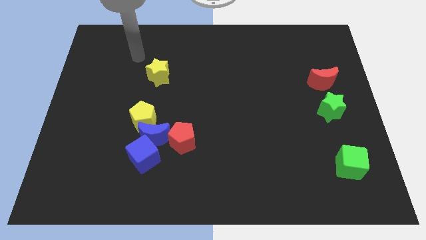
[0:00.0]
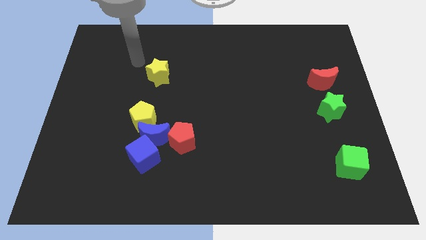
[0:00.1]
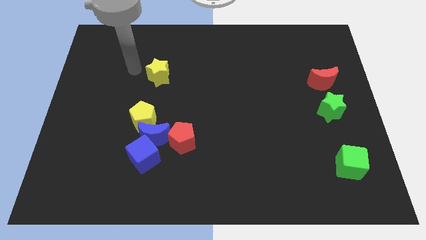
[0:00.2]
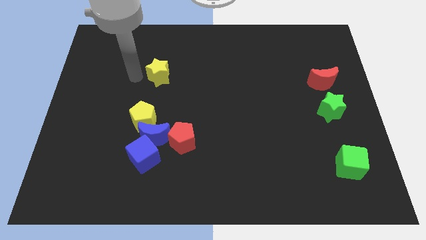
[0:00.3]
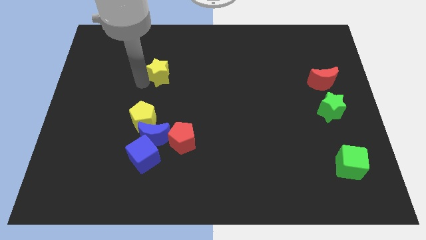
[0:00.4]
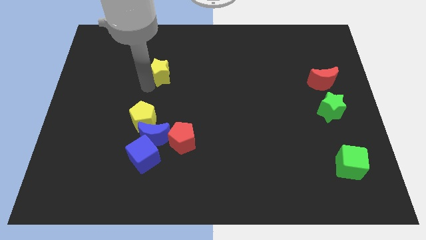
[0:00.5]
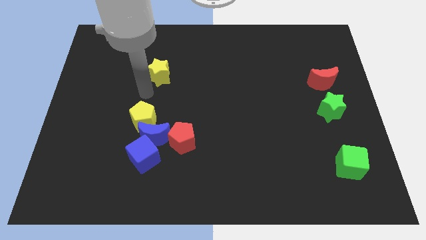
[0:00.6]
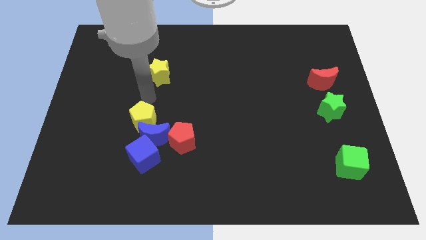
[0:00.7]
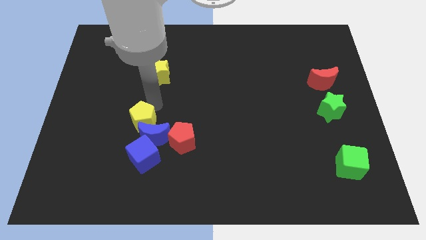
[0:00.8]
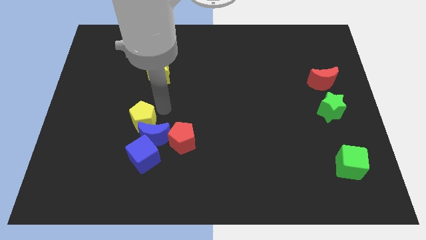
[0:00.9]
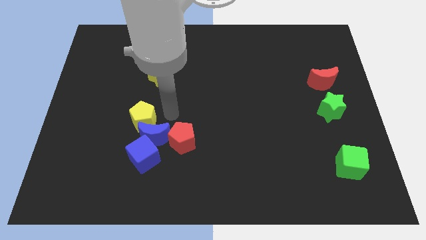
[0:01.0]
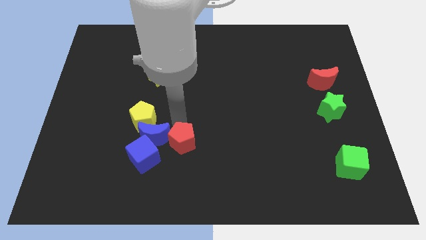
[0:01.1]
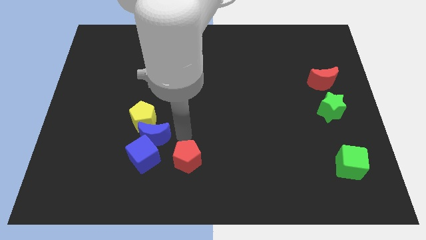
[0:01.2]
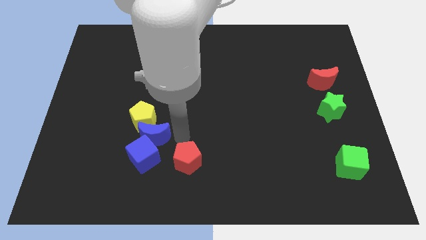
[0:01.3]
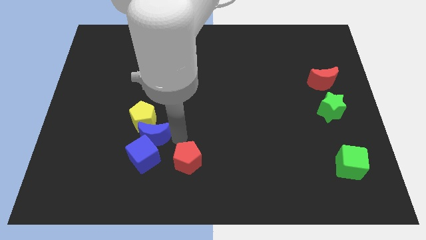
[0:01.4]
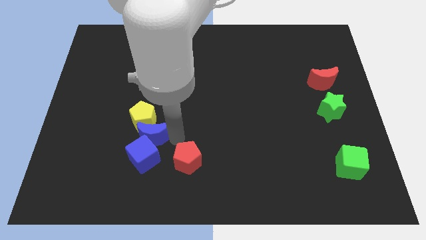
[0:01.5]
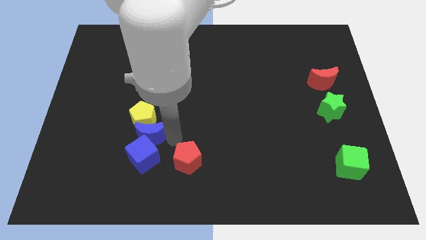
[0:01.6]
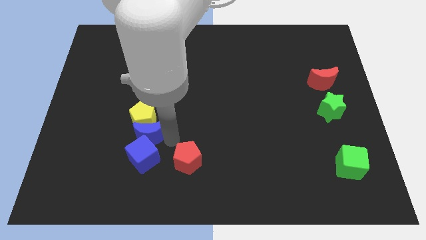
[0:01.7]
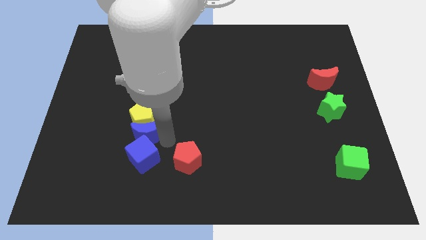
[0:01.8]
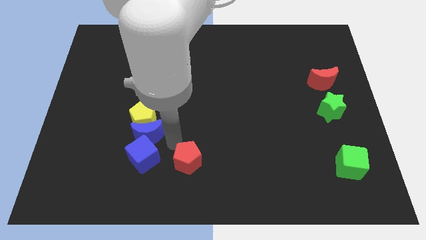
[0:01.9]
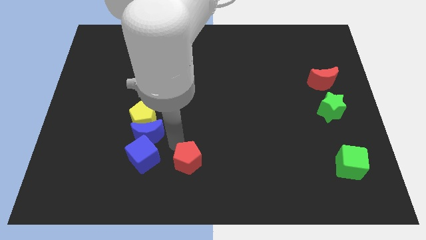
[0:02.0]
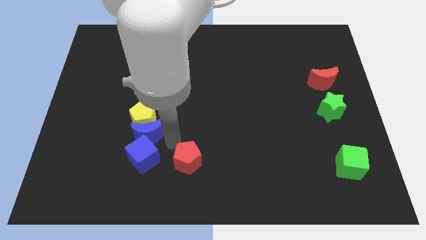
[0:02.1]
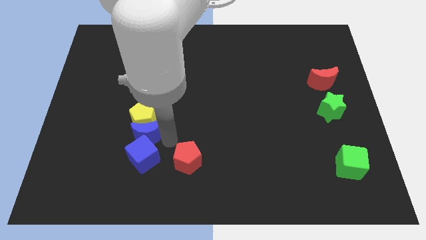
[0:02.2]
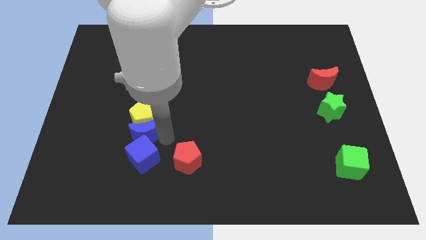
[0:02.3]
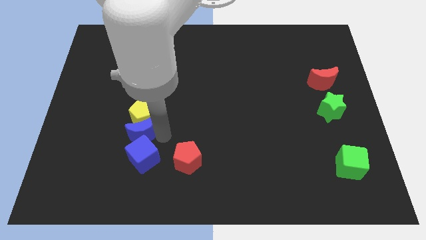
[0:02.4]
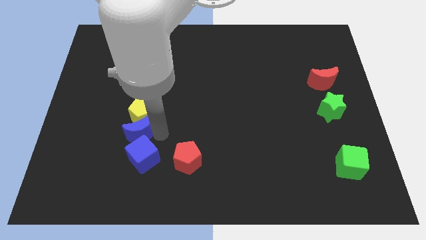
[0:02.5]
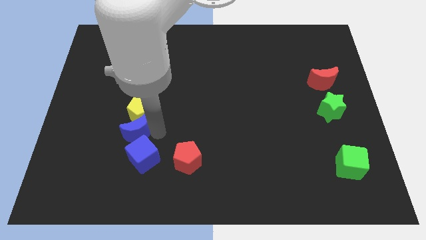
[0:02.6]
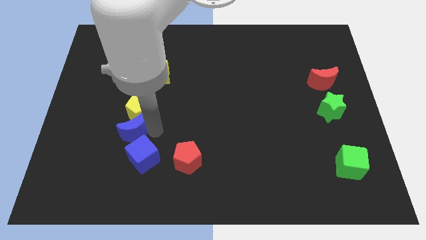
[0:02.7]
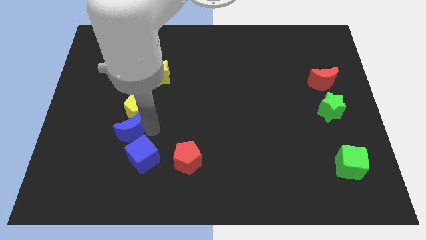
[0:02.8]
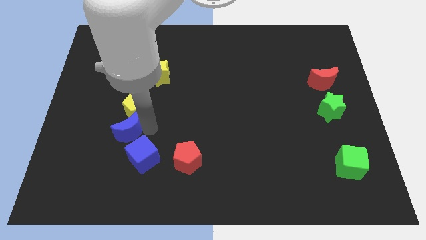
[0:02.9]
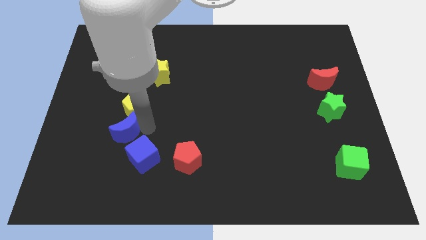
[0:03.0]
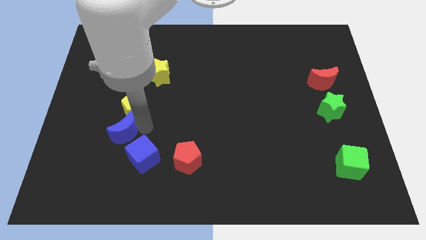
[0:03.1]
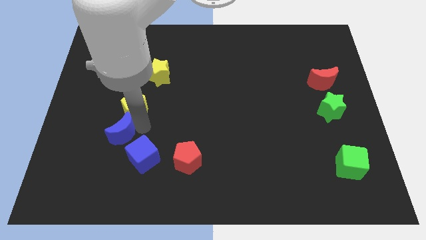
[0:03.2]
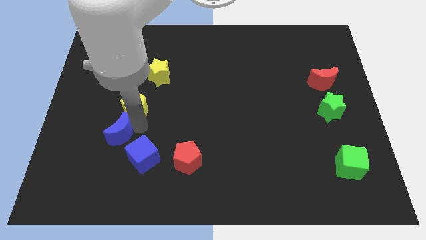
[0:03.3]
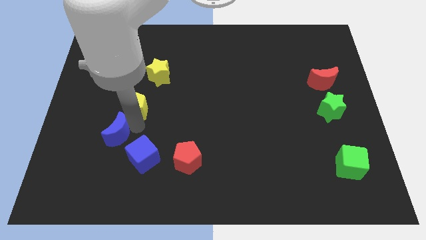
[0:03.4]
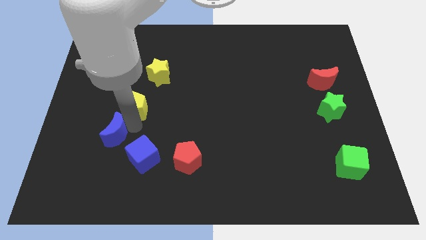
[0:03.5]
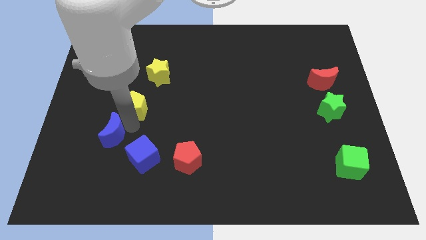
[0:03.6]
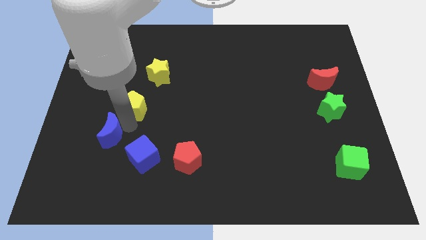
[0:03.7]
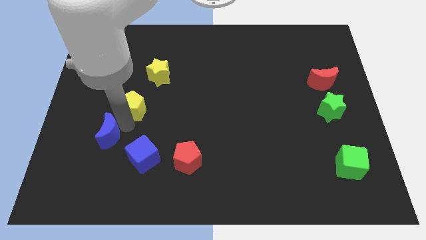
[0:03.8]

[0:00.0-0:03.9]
separate the blue moon from the group of blocks

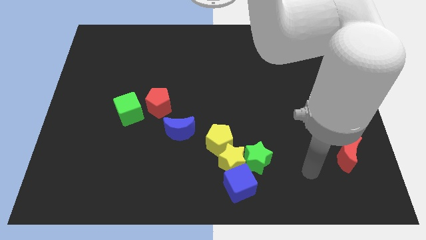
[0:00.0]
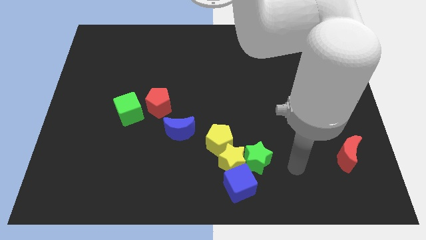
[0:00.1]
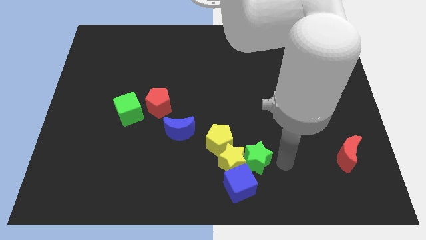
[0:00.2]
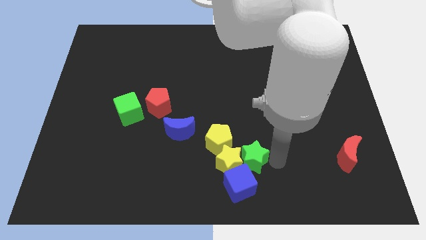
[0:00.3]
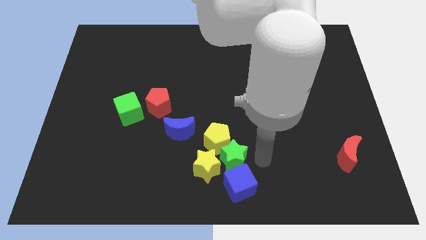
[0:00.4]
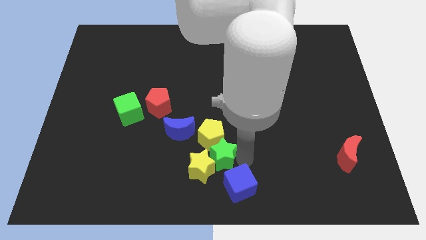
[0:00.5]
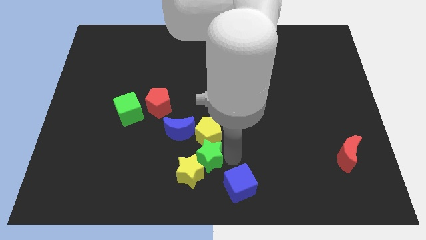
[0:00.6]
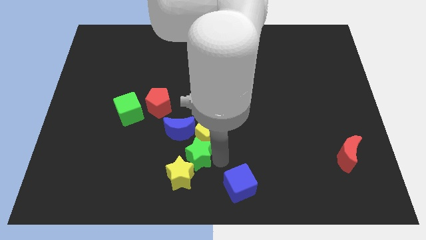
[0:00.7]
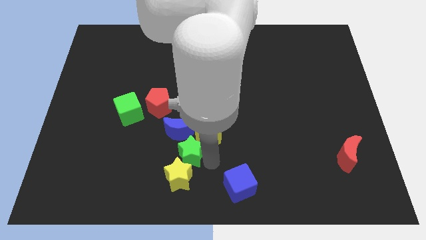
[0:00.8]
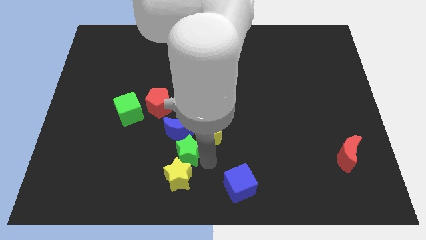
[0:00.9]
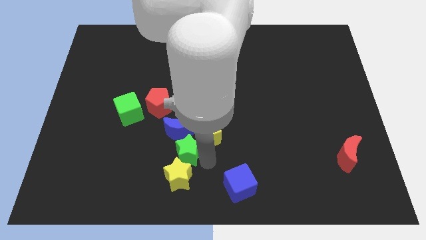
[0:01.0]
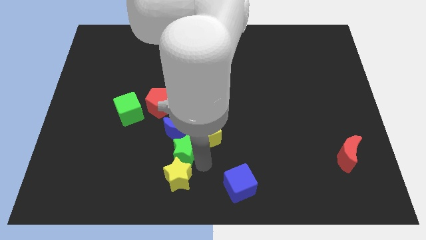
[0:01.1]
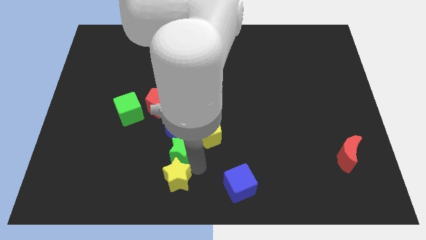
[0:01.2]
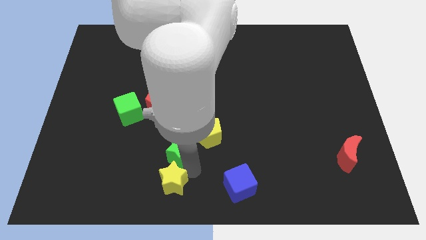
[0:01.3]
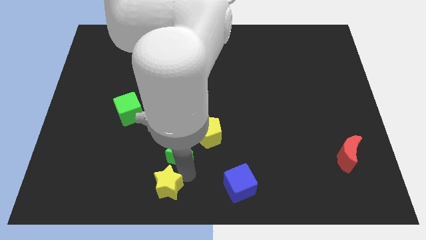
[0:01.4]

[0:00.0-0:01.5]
separate the yellow star from the clump

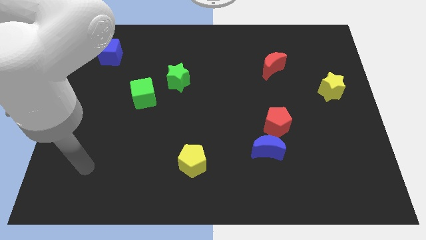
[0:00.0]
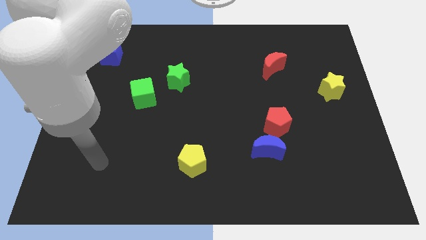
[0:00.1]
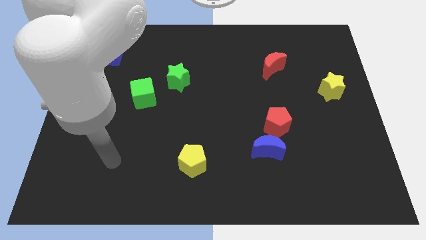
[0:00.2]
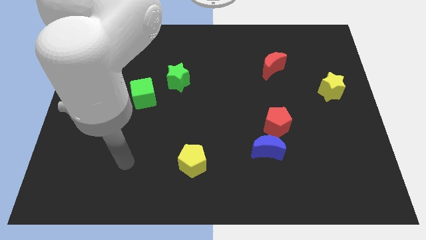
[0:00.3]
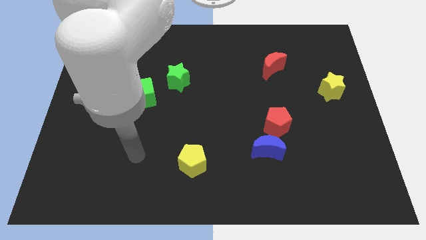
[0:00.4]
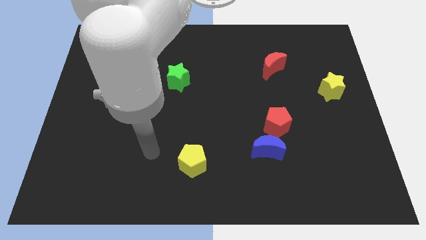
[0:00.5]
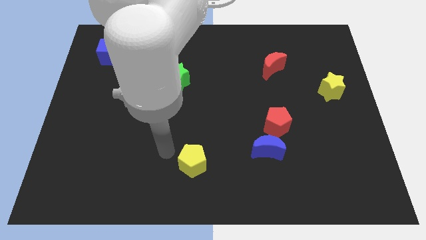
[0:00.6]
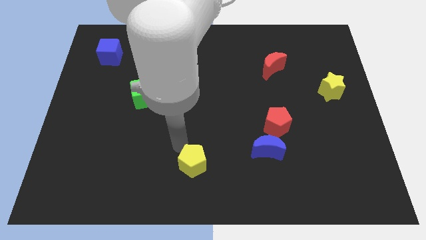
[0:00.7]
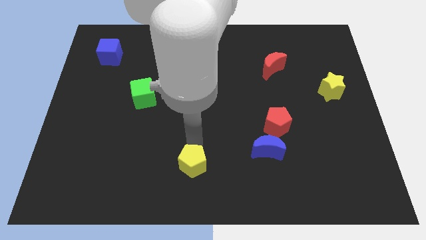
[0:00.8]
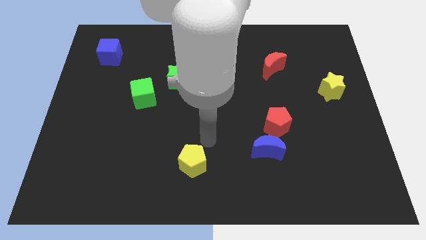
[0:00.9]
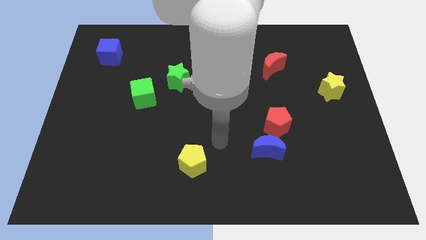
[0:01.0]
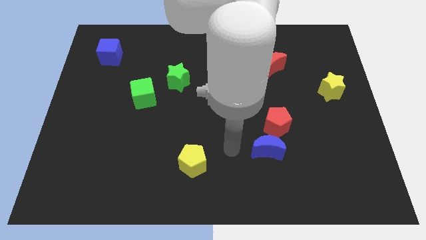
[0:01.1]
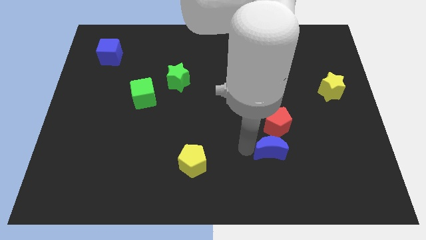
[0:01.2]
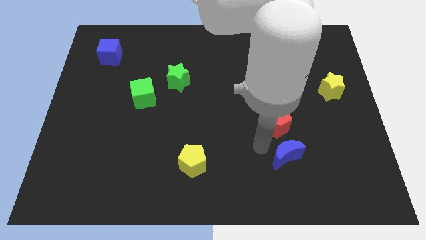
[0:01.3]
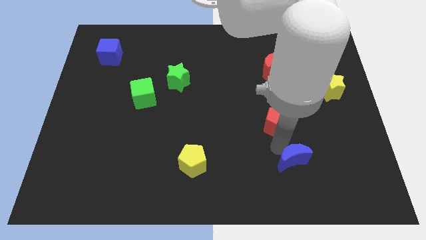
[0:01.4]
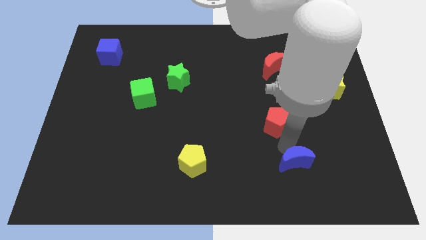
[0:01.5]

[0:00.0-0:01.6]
separate the red pentagon from the blue moon

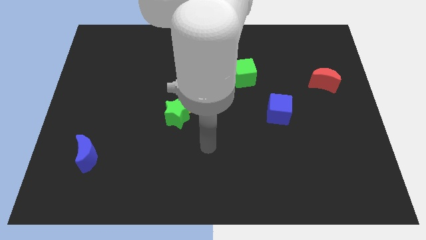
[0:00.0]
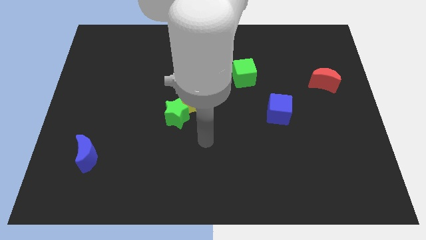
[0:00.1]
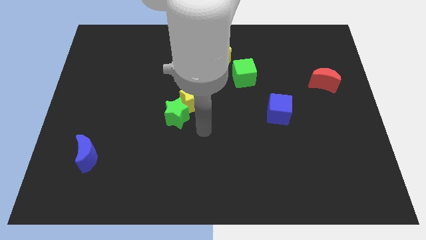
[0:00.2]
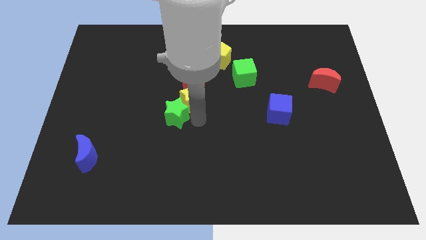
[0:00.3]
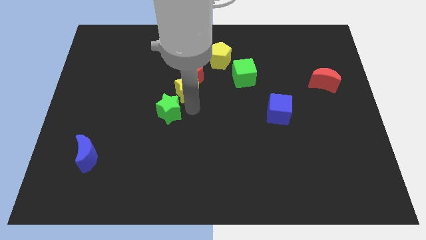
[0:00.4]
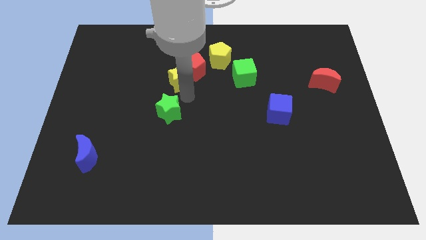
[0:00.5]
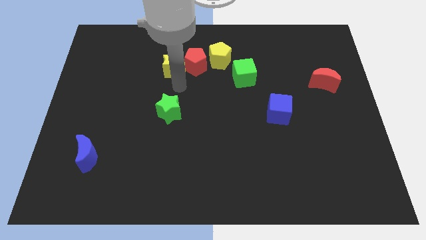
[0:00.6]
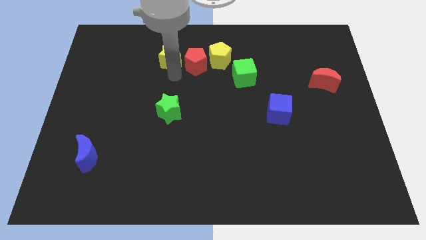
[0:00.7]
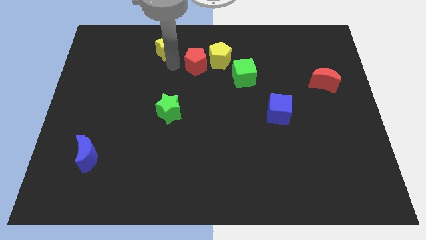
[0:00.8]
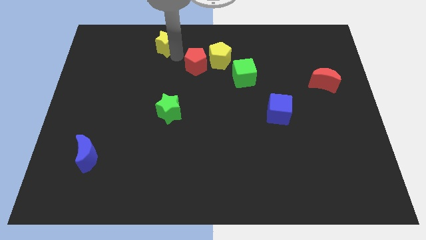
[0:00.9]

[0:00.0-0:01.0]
separate the red pentagon from the yellow star

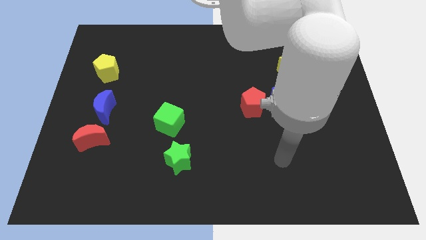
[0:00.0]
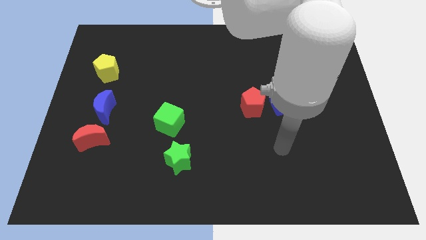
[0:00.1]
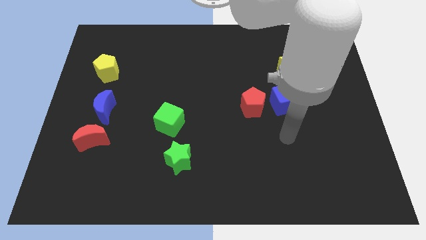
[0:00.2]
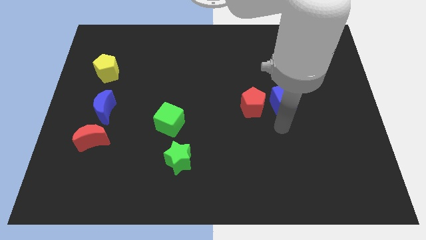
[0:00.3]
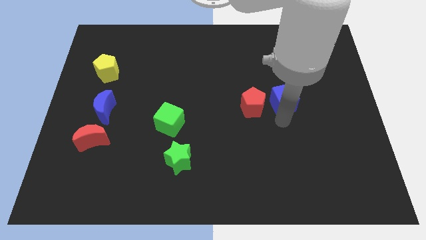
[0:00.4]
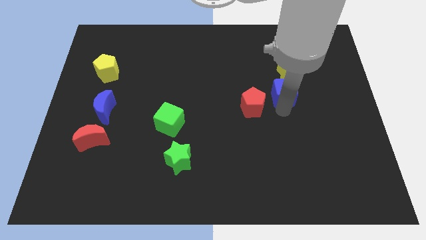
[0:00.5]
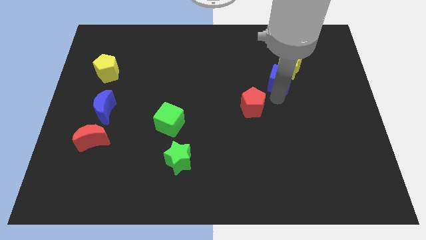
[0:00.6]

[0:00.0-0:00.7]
move the red pentagon away from the blue cube

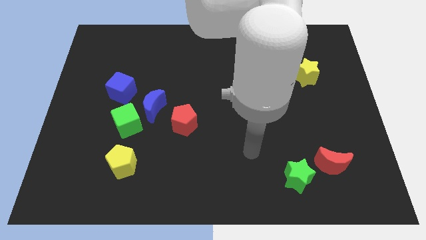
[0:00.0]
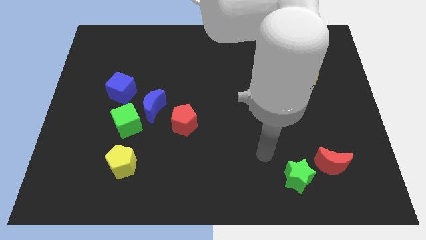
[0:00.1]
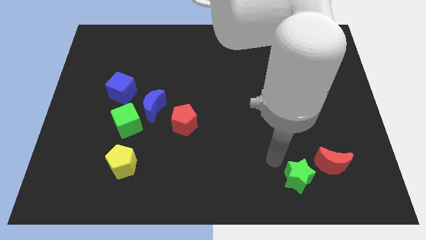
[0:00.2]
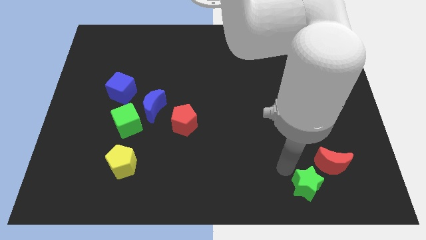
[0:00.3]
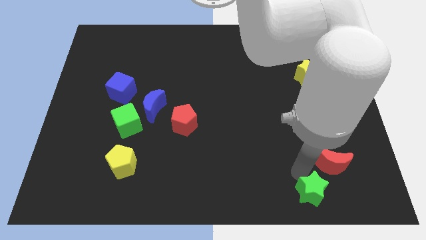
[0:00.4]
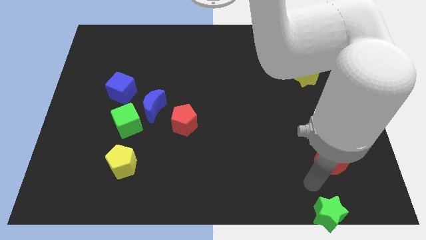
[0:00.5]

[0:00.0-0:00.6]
move the red moon away from the green star
